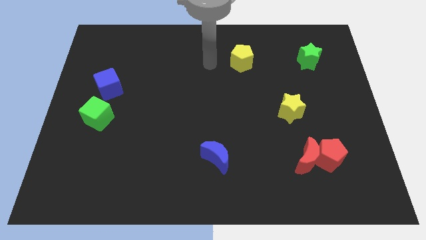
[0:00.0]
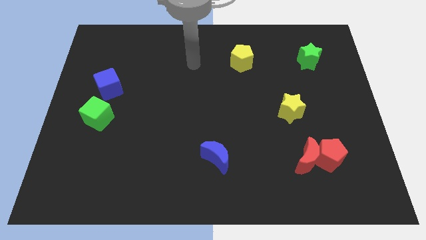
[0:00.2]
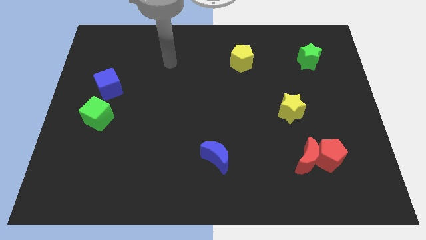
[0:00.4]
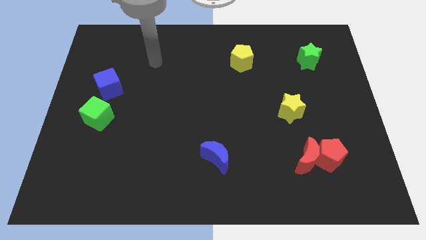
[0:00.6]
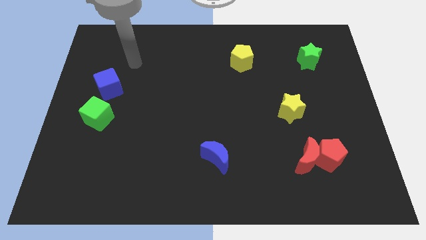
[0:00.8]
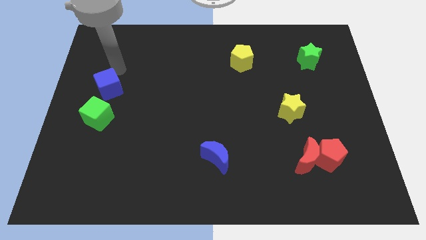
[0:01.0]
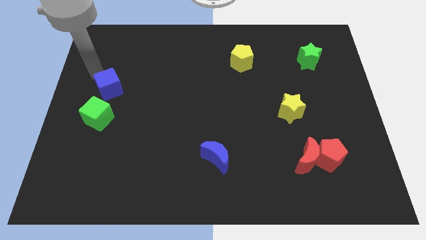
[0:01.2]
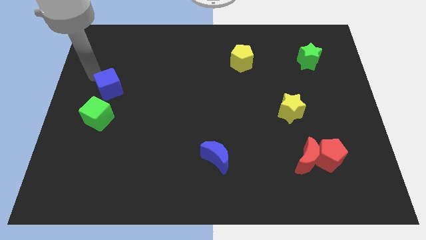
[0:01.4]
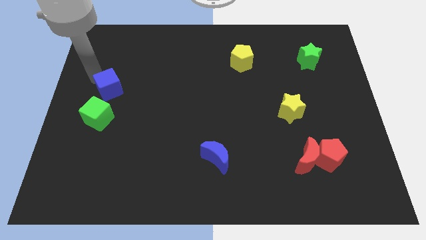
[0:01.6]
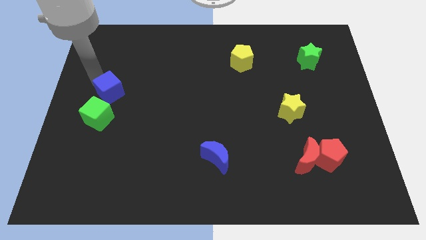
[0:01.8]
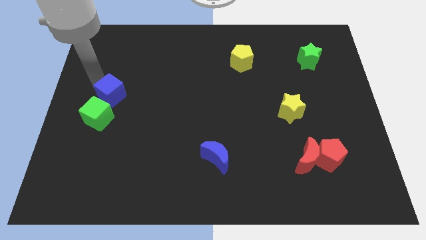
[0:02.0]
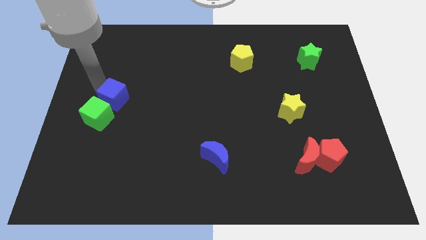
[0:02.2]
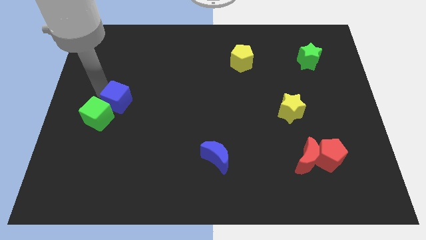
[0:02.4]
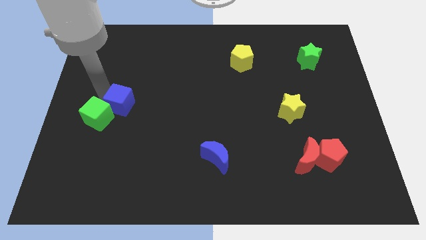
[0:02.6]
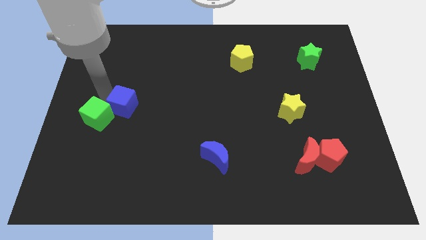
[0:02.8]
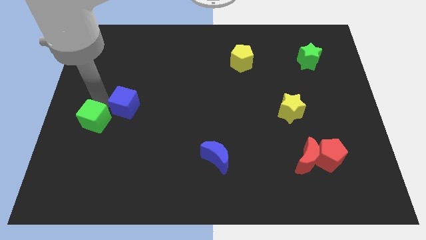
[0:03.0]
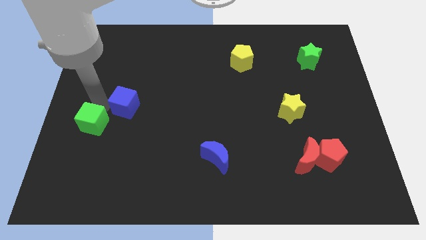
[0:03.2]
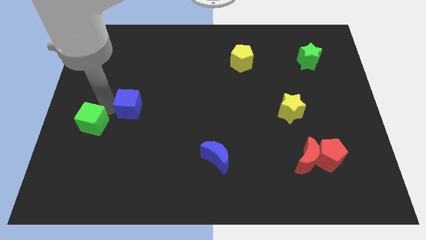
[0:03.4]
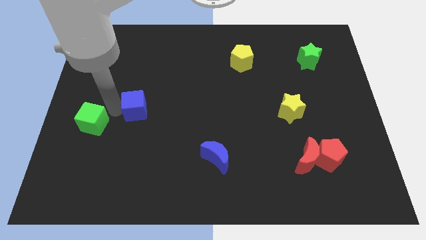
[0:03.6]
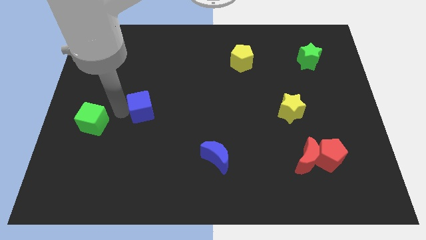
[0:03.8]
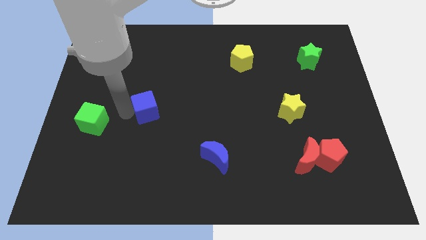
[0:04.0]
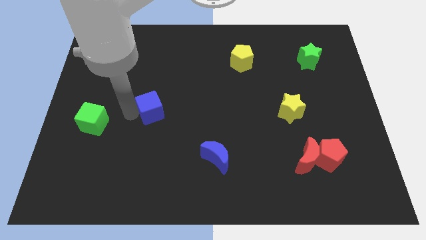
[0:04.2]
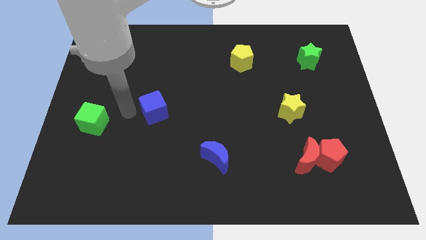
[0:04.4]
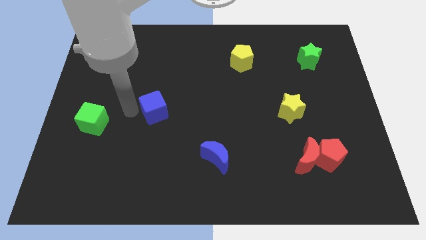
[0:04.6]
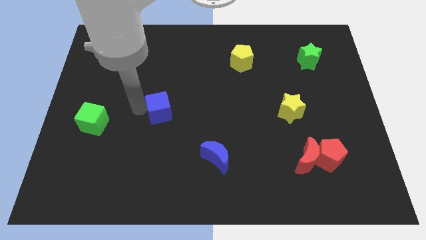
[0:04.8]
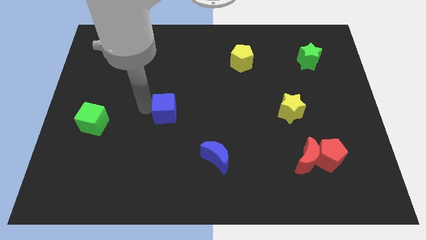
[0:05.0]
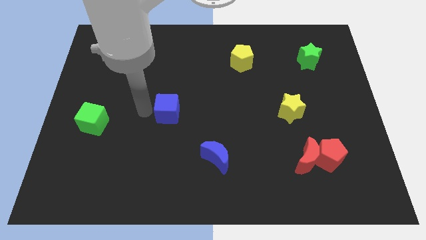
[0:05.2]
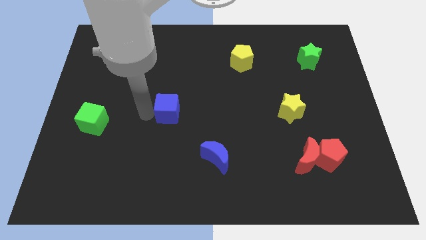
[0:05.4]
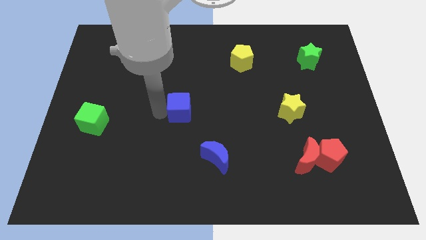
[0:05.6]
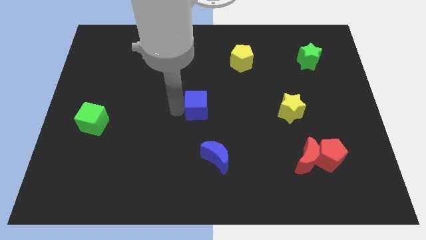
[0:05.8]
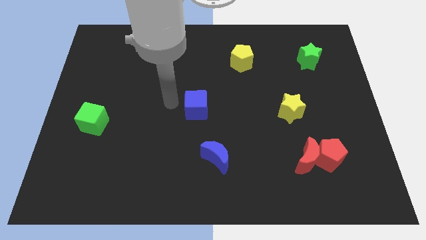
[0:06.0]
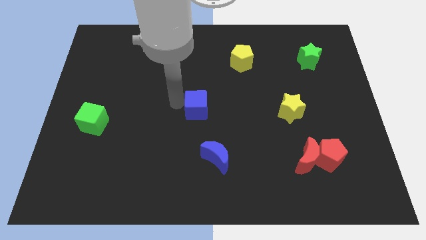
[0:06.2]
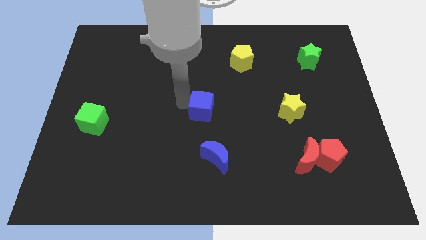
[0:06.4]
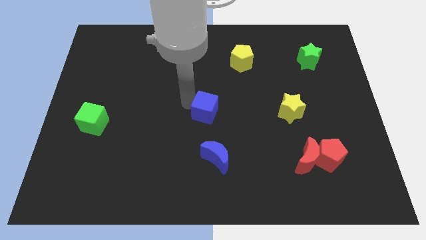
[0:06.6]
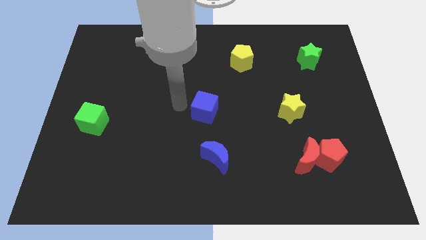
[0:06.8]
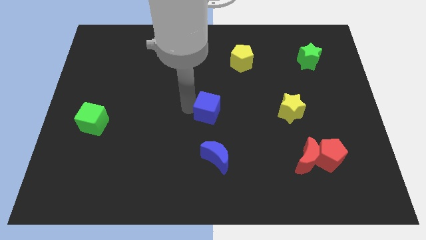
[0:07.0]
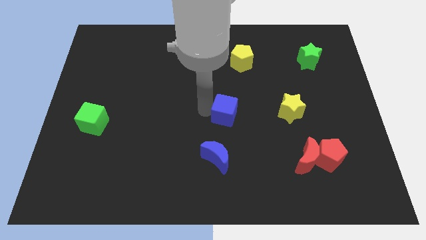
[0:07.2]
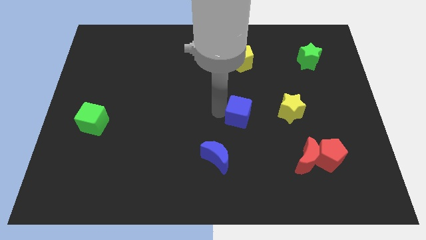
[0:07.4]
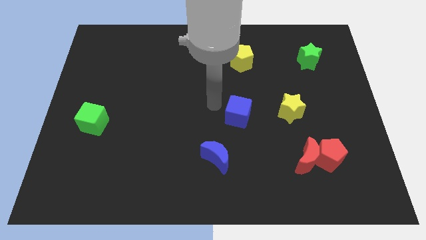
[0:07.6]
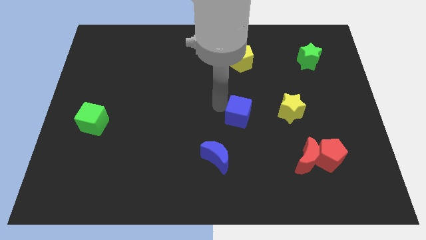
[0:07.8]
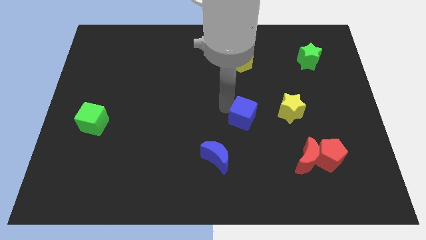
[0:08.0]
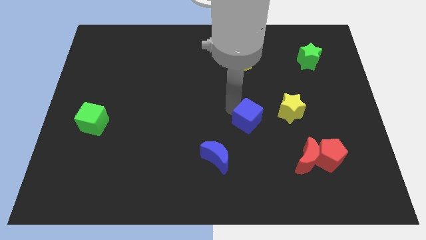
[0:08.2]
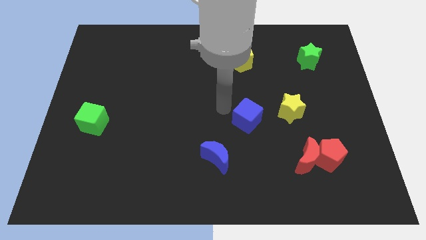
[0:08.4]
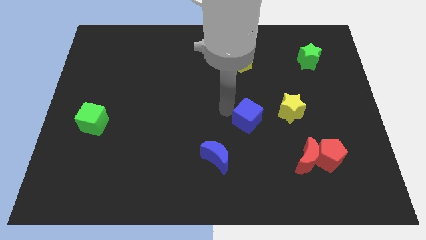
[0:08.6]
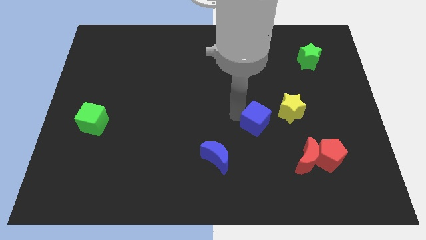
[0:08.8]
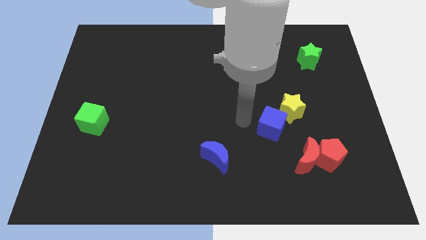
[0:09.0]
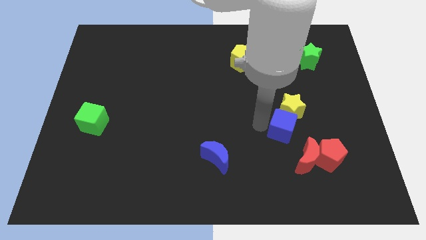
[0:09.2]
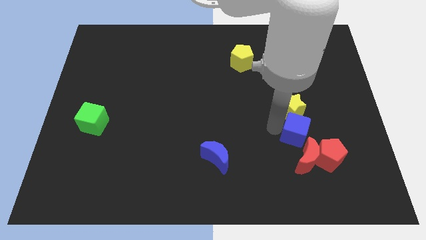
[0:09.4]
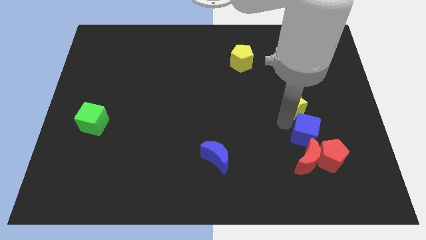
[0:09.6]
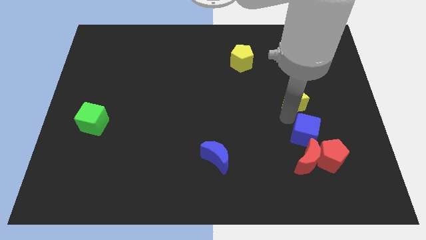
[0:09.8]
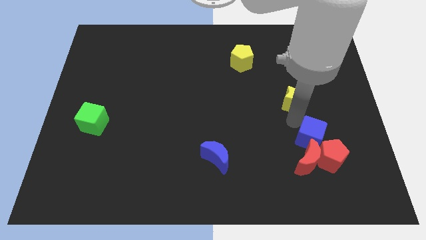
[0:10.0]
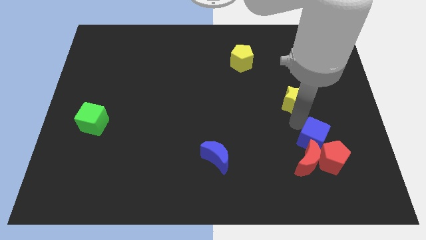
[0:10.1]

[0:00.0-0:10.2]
move the blue cube towards the red pentagon

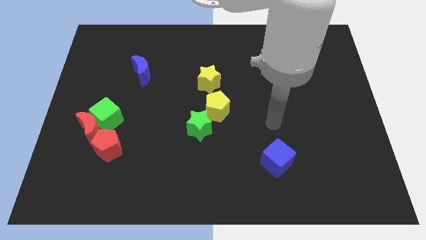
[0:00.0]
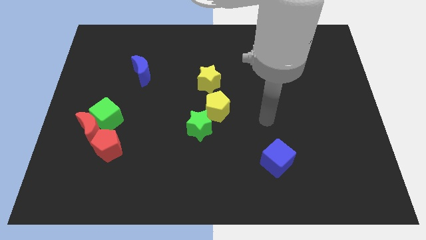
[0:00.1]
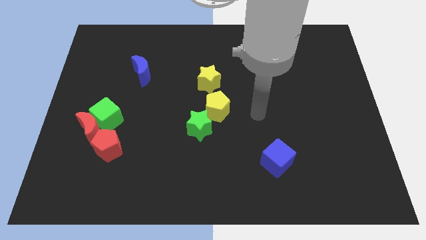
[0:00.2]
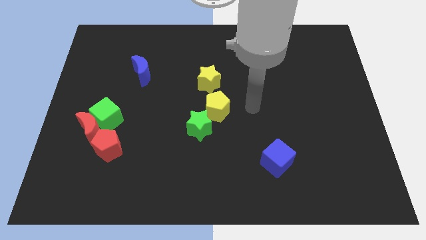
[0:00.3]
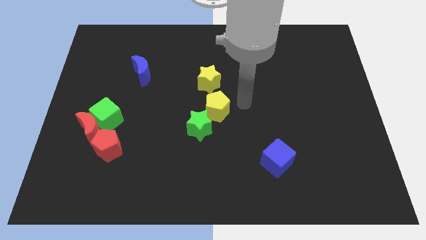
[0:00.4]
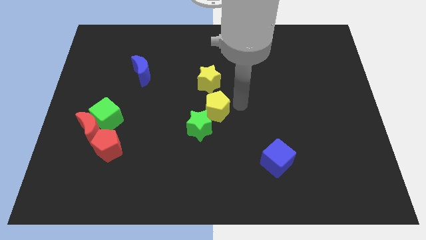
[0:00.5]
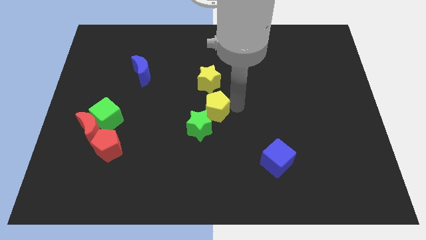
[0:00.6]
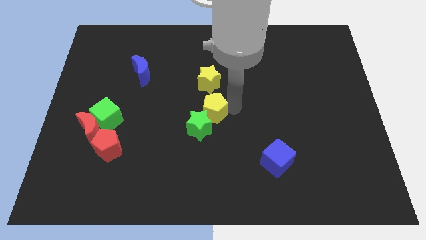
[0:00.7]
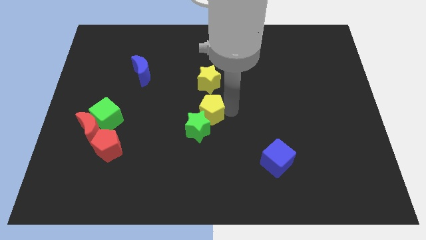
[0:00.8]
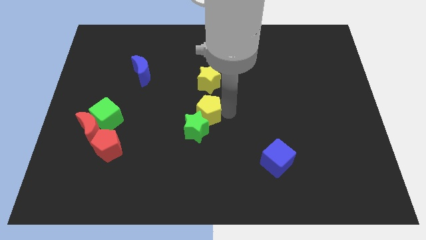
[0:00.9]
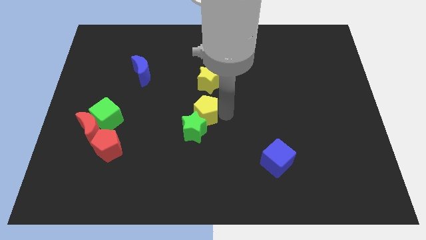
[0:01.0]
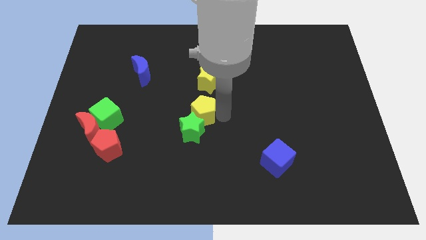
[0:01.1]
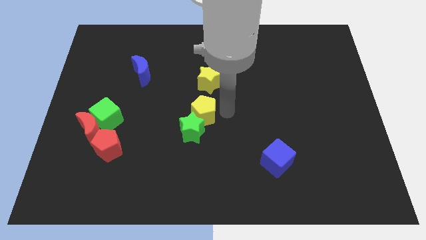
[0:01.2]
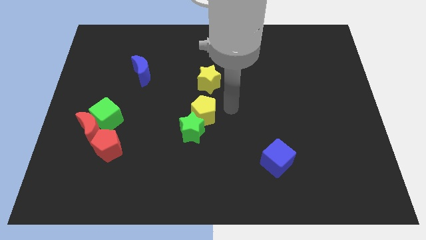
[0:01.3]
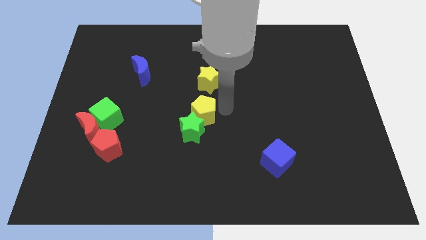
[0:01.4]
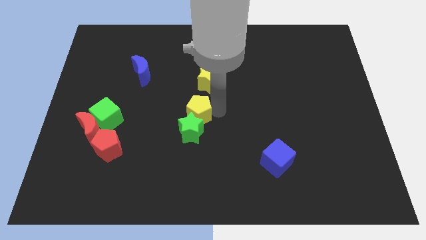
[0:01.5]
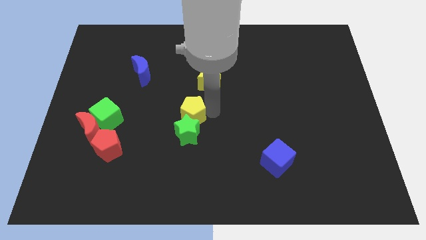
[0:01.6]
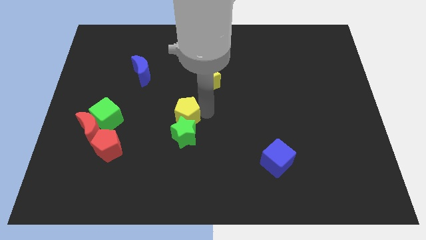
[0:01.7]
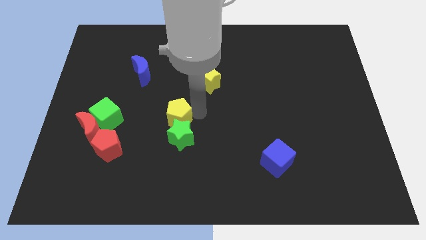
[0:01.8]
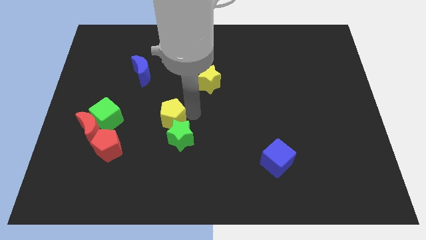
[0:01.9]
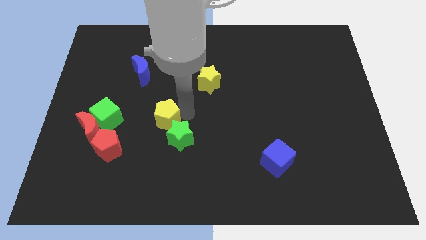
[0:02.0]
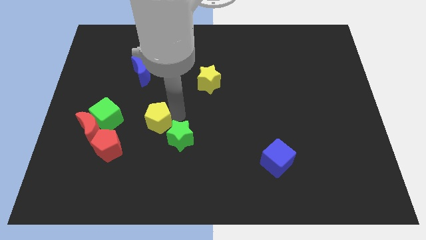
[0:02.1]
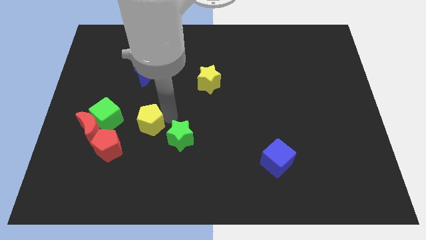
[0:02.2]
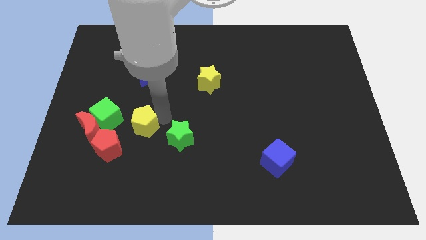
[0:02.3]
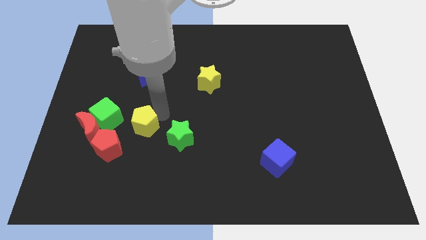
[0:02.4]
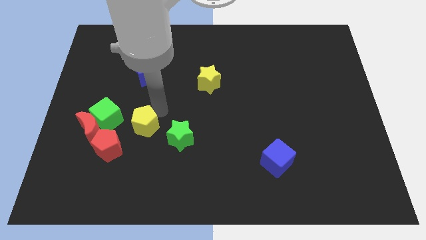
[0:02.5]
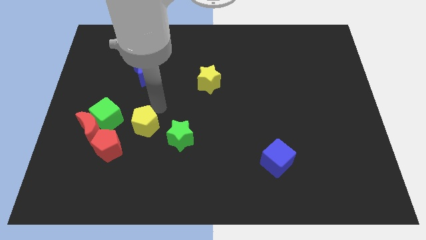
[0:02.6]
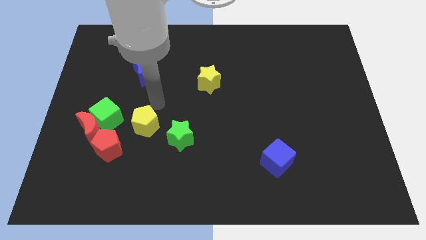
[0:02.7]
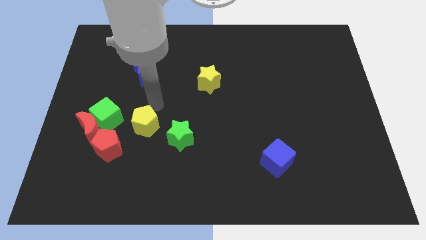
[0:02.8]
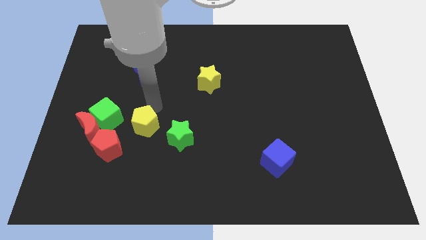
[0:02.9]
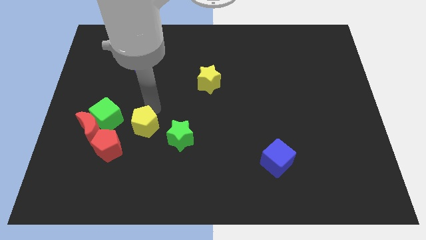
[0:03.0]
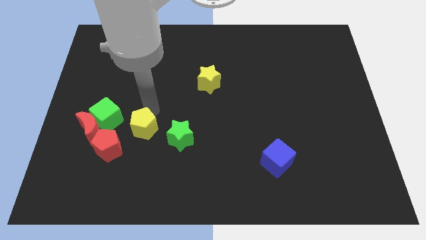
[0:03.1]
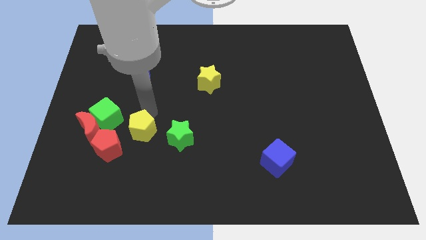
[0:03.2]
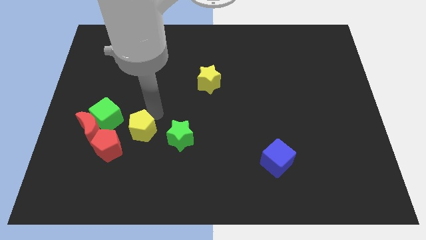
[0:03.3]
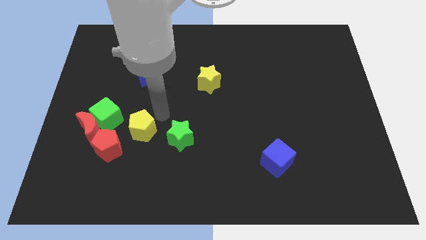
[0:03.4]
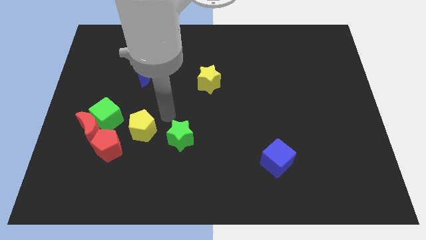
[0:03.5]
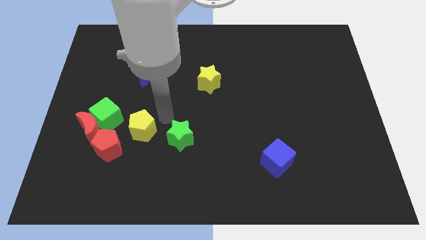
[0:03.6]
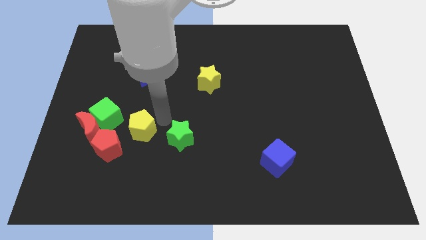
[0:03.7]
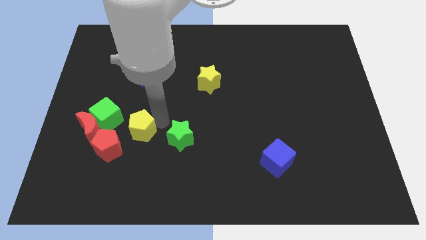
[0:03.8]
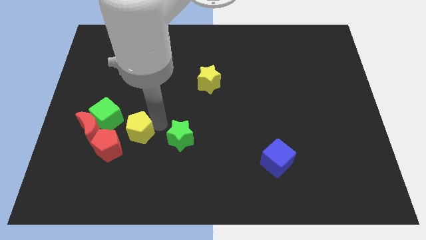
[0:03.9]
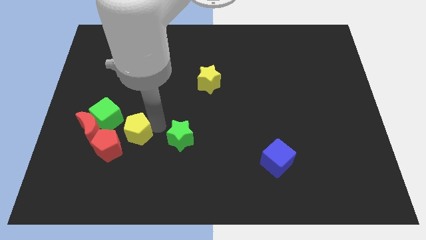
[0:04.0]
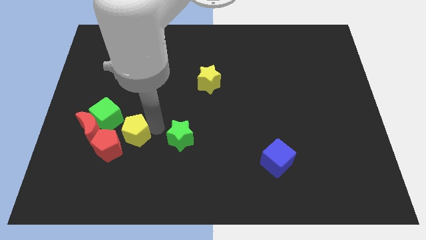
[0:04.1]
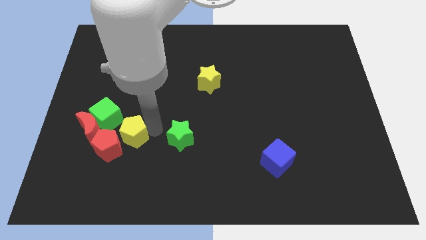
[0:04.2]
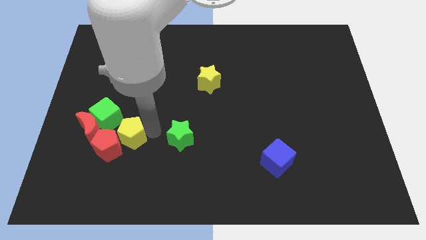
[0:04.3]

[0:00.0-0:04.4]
move the yellow pentagon next to the red pentagon
